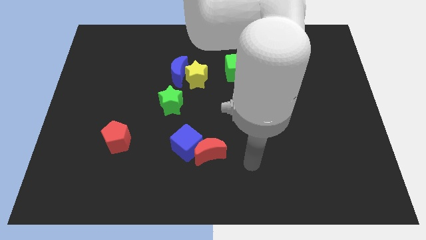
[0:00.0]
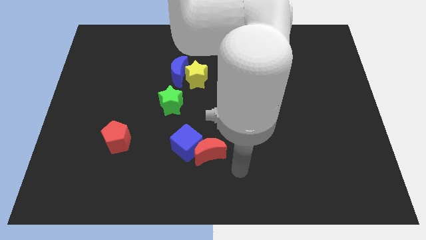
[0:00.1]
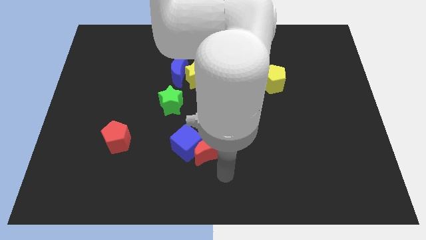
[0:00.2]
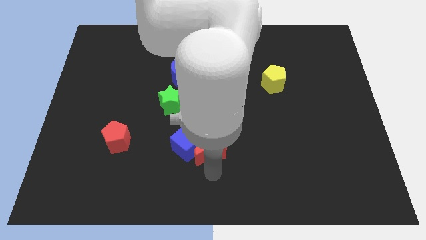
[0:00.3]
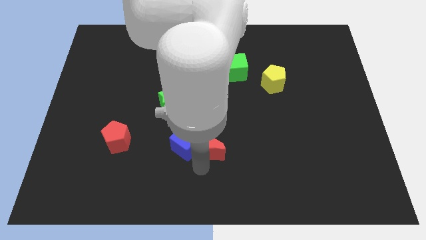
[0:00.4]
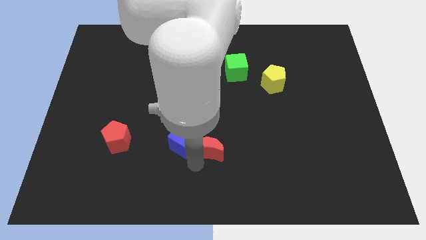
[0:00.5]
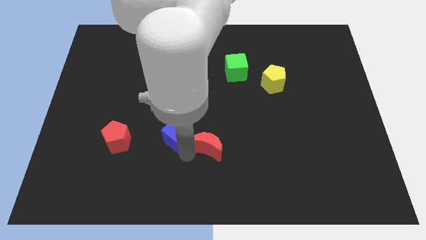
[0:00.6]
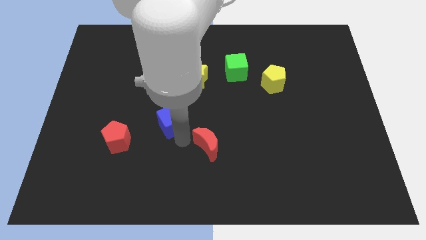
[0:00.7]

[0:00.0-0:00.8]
move the red moon away from the blue cube

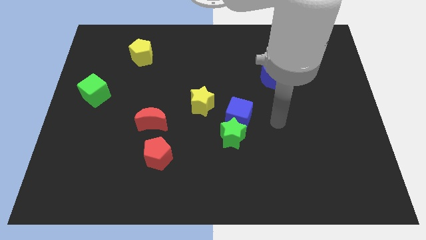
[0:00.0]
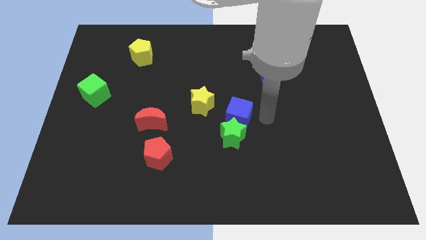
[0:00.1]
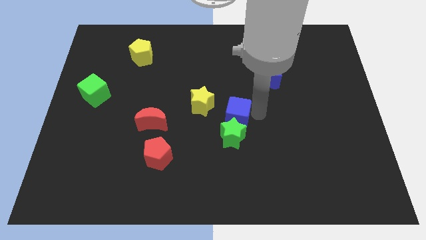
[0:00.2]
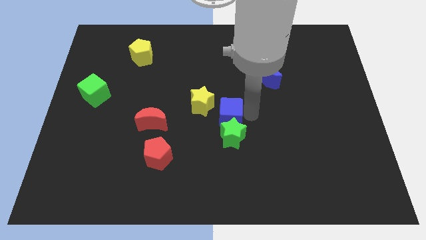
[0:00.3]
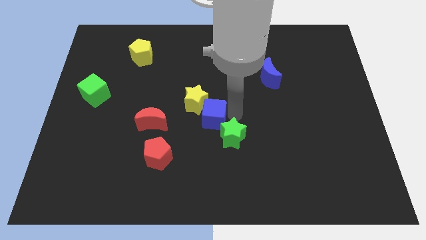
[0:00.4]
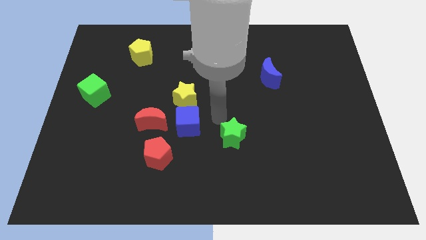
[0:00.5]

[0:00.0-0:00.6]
pull the green star apart from the blue cube

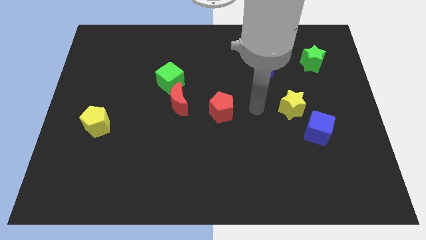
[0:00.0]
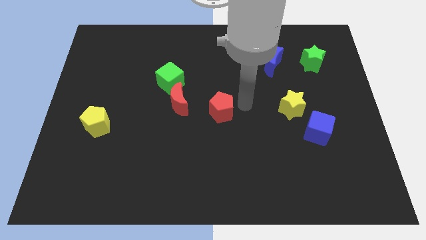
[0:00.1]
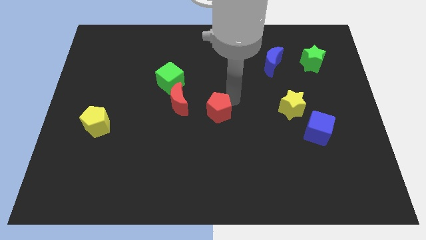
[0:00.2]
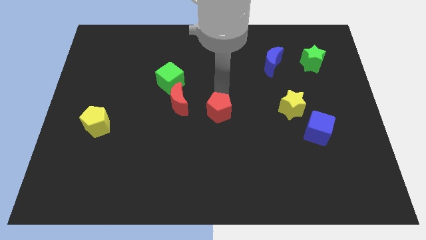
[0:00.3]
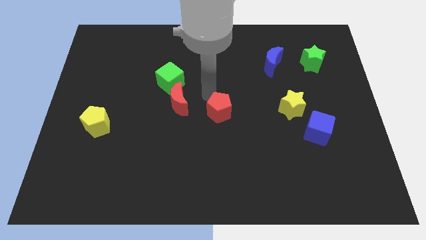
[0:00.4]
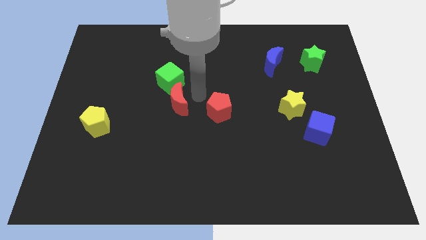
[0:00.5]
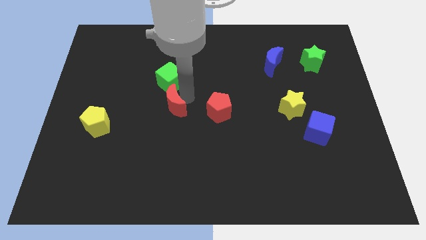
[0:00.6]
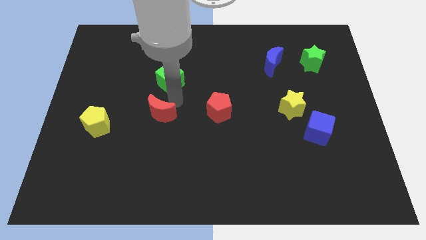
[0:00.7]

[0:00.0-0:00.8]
separate the green cube from the red moon

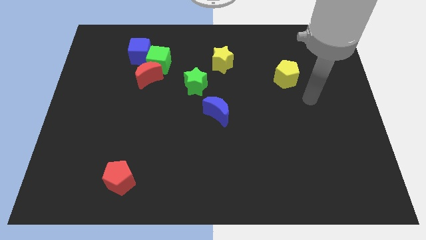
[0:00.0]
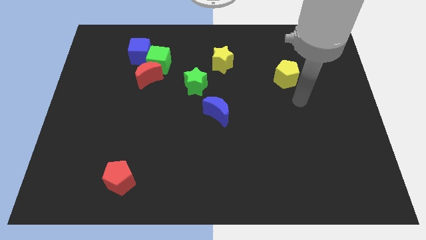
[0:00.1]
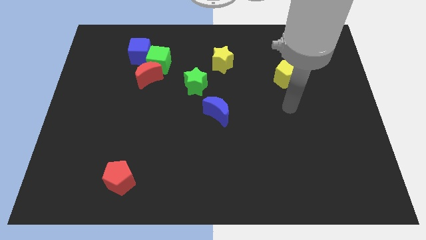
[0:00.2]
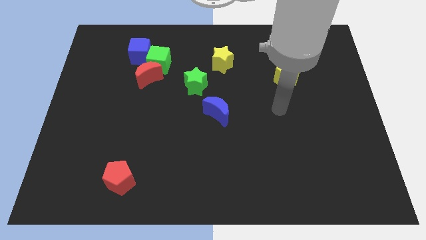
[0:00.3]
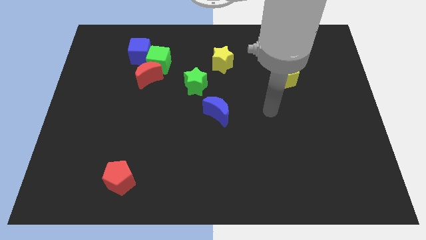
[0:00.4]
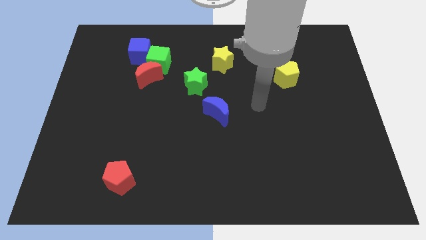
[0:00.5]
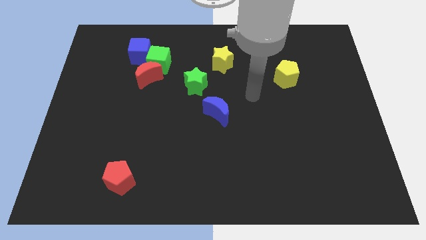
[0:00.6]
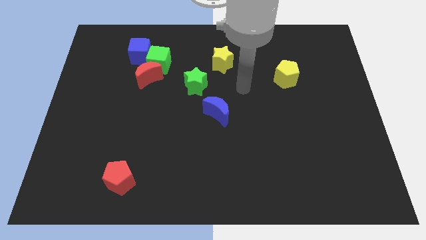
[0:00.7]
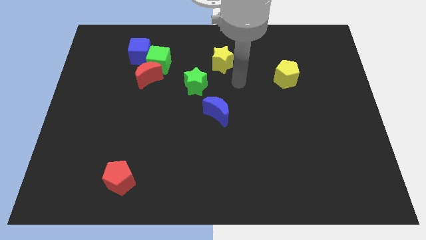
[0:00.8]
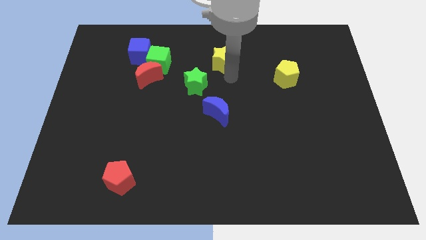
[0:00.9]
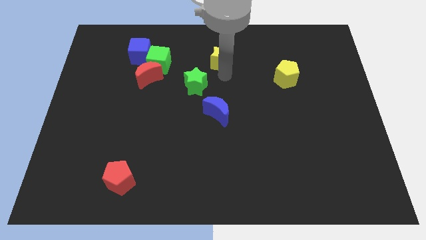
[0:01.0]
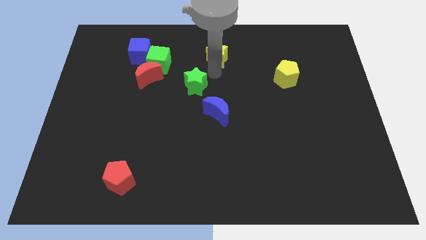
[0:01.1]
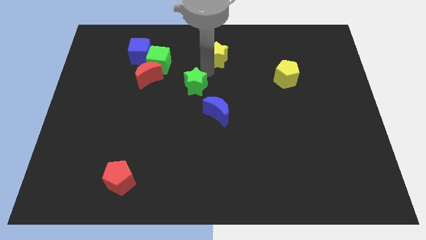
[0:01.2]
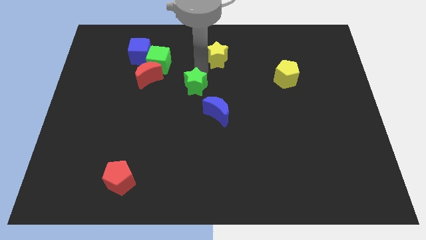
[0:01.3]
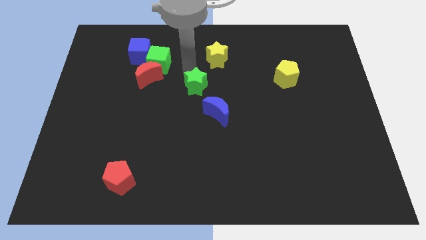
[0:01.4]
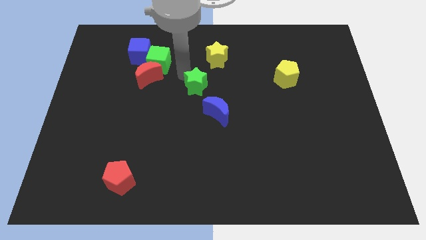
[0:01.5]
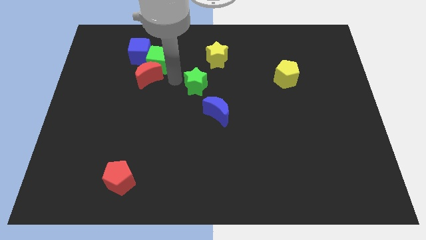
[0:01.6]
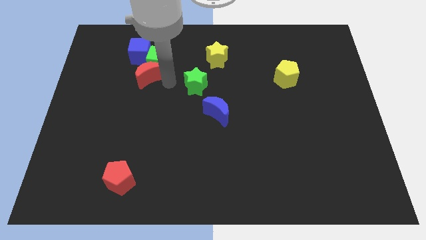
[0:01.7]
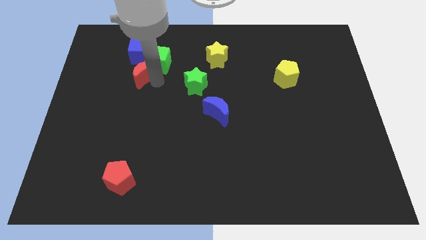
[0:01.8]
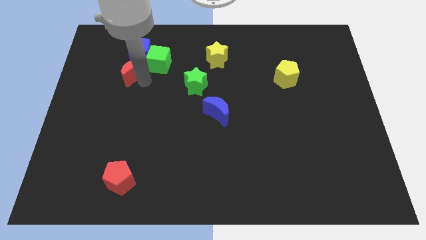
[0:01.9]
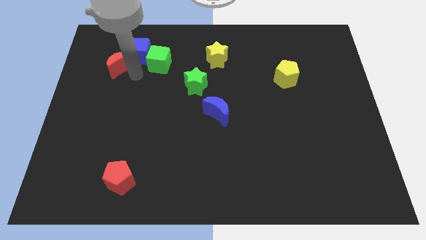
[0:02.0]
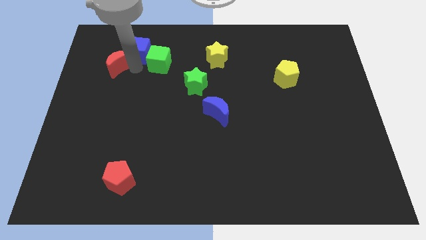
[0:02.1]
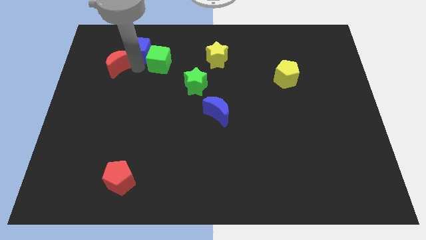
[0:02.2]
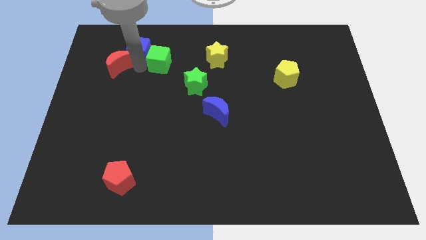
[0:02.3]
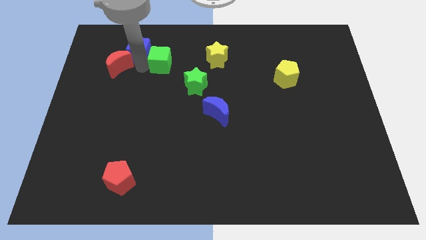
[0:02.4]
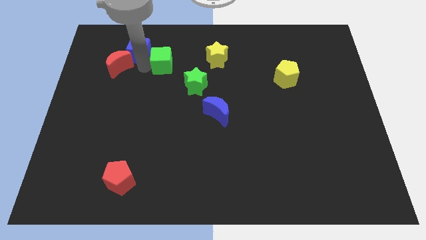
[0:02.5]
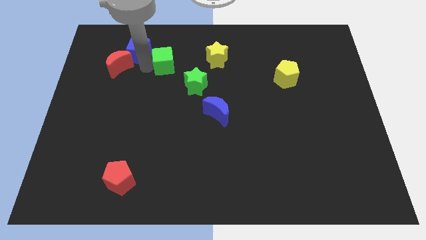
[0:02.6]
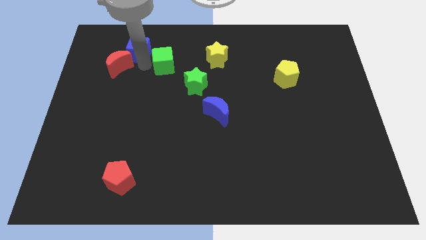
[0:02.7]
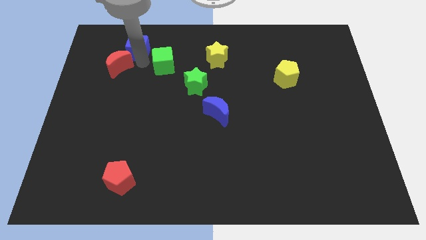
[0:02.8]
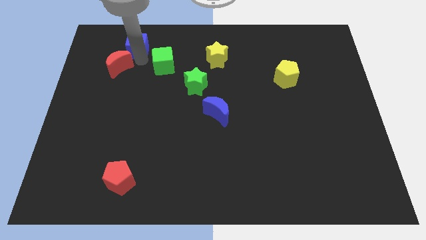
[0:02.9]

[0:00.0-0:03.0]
separate the green cube from the red moon and blue cube

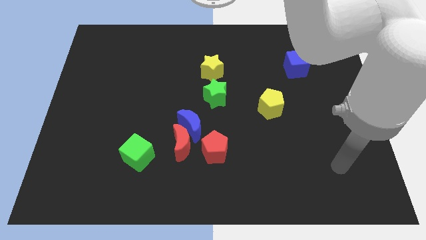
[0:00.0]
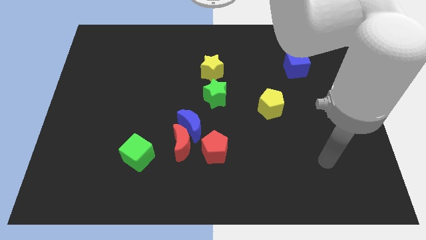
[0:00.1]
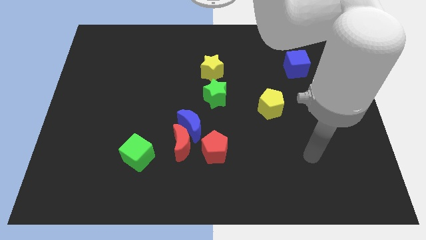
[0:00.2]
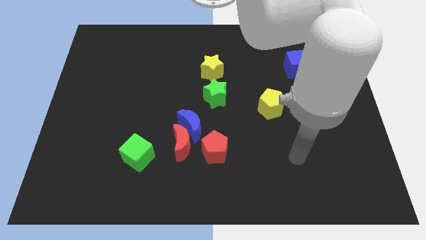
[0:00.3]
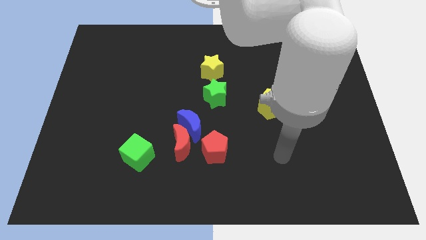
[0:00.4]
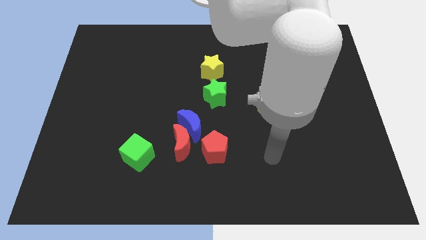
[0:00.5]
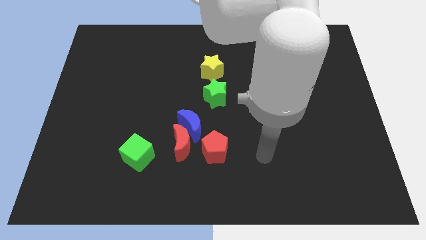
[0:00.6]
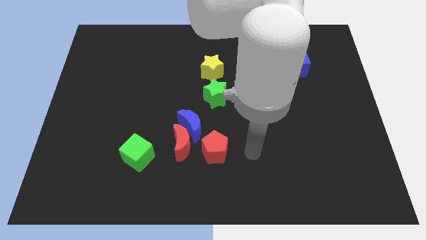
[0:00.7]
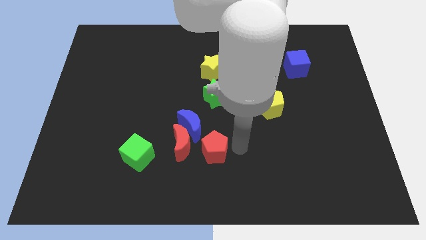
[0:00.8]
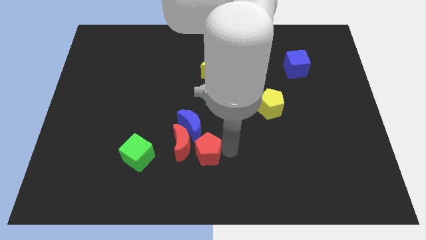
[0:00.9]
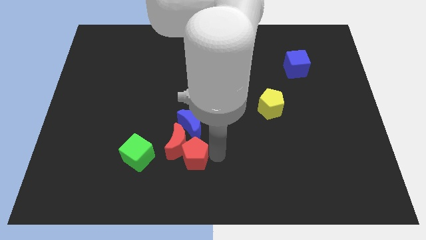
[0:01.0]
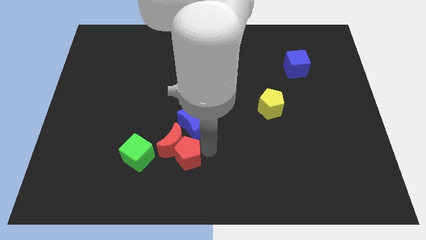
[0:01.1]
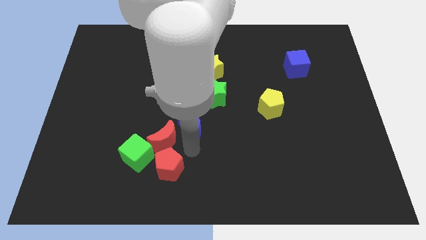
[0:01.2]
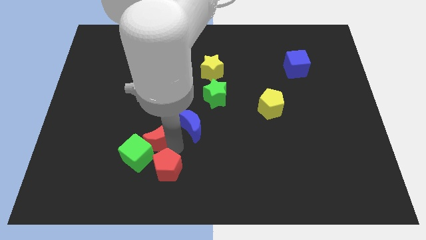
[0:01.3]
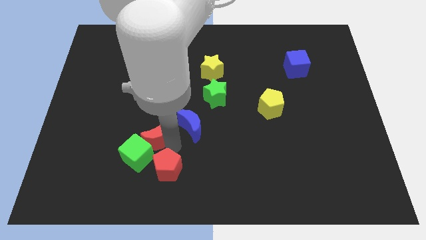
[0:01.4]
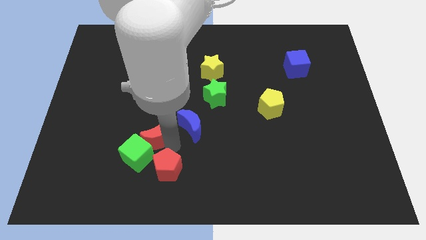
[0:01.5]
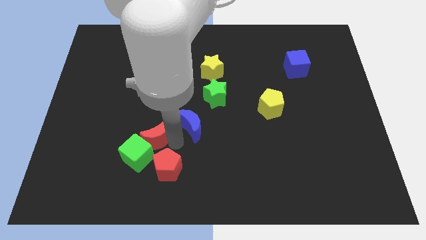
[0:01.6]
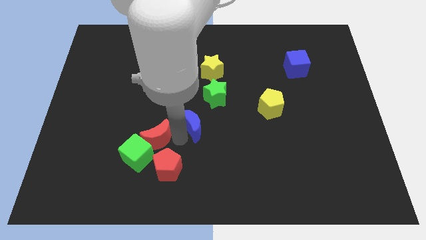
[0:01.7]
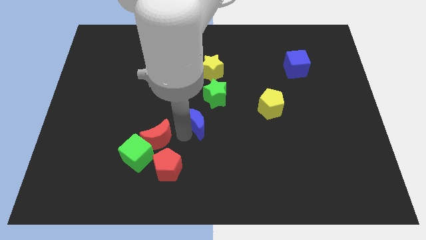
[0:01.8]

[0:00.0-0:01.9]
separate the blue moon from the red moon and red pentagon

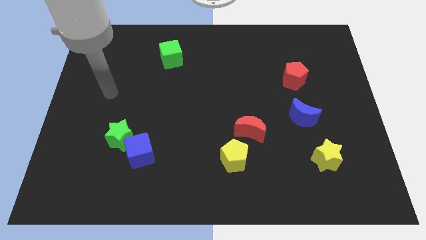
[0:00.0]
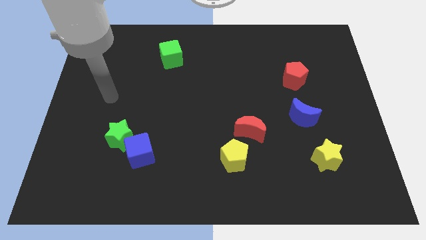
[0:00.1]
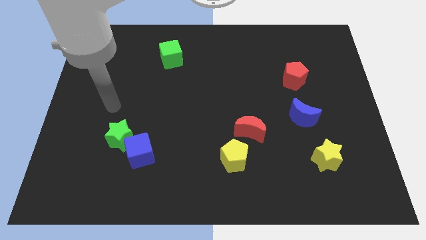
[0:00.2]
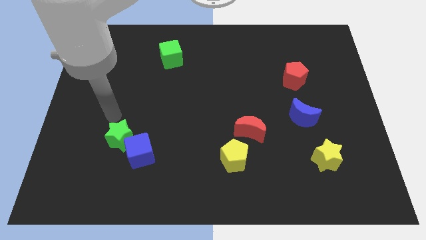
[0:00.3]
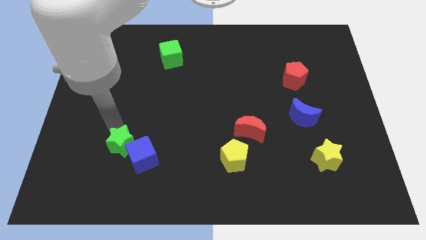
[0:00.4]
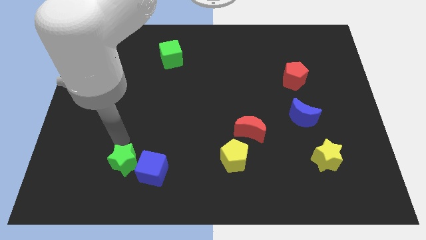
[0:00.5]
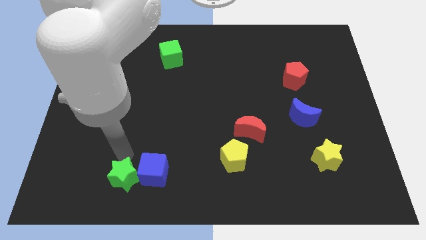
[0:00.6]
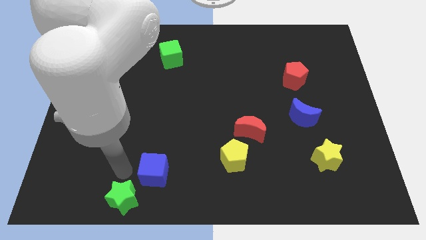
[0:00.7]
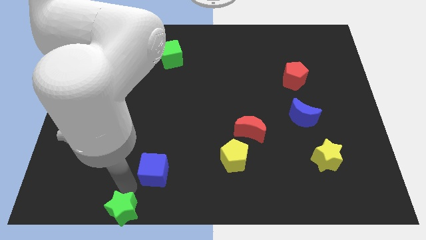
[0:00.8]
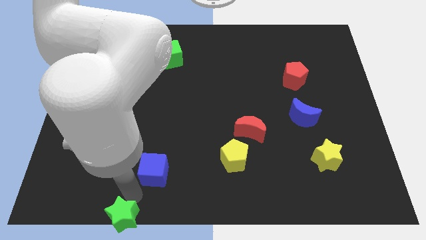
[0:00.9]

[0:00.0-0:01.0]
separate the blue cube from the green star

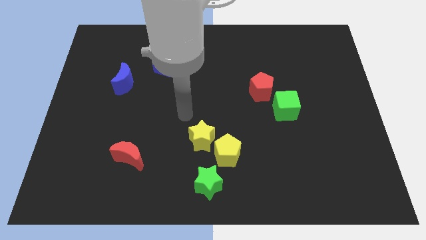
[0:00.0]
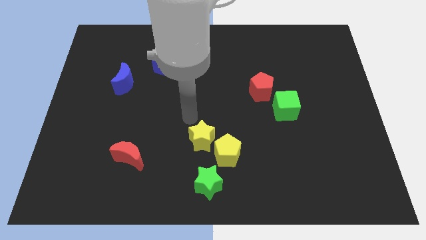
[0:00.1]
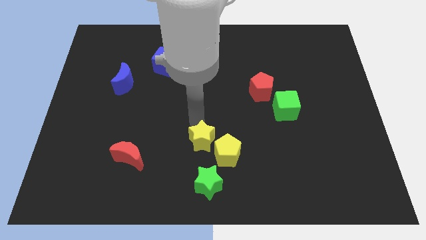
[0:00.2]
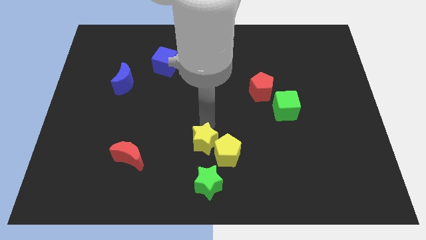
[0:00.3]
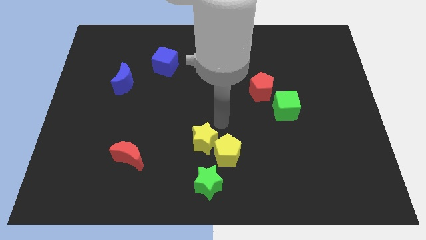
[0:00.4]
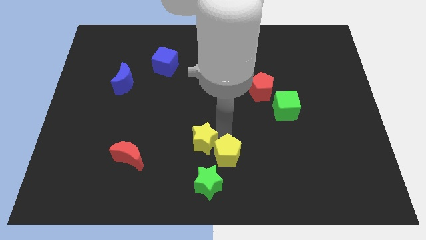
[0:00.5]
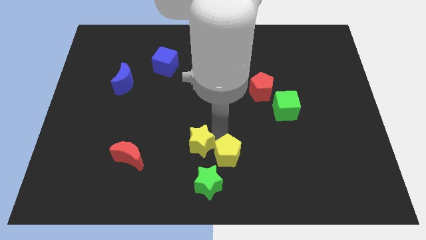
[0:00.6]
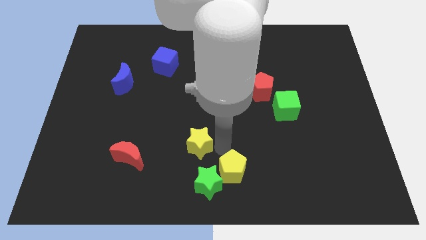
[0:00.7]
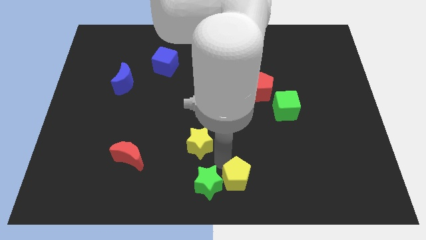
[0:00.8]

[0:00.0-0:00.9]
pull the yellow star apart from the yellow pentagon

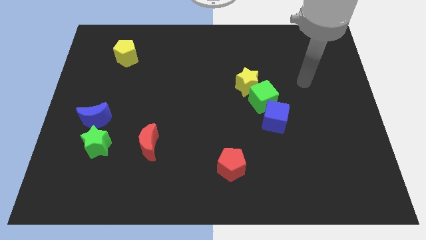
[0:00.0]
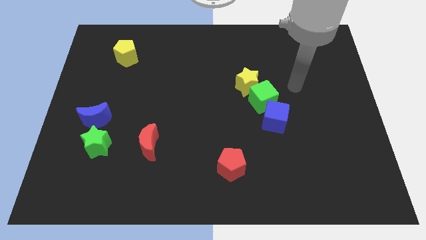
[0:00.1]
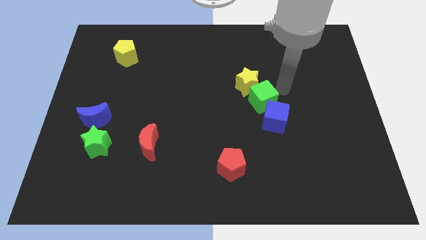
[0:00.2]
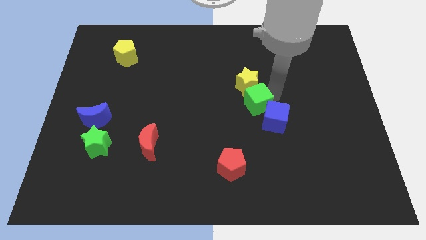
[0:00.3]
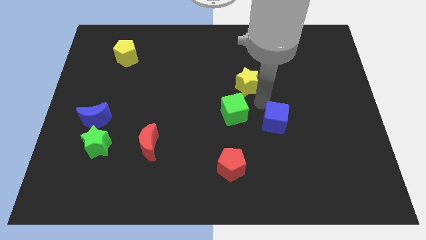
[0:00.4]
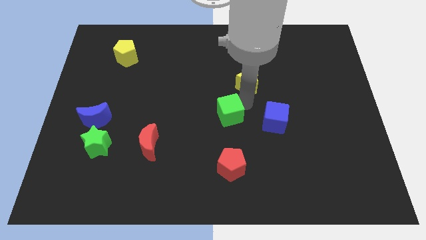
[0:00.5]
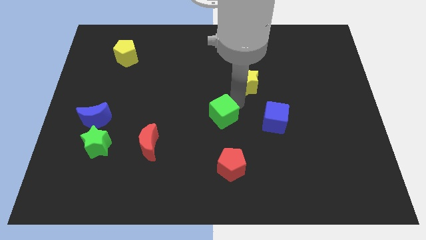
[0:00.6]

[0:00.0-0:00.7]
pull the yellow star apart from the green cube
